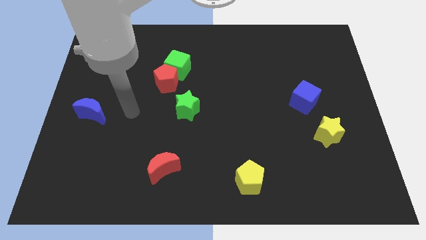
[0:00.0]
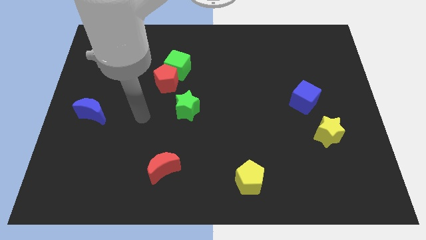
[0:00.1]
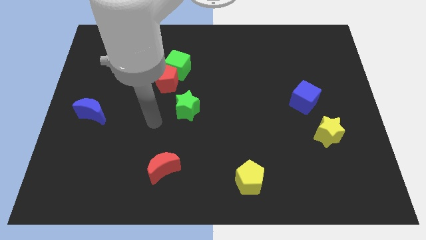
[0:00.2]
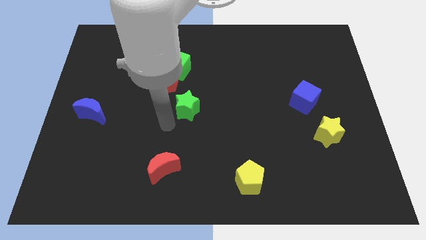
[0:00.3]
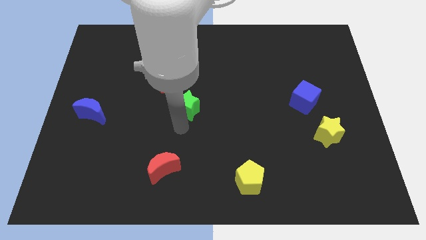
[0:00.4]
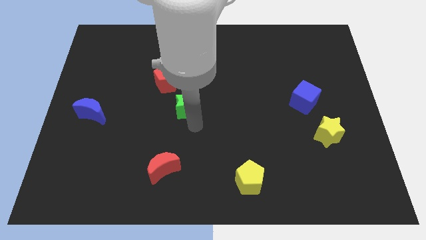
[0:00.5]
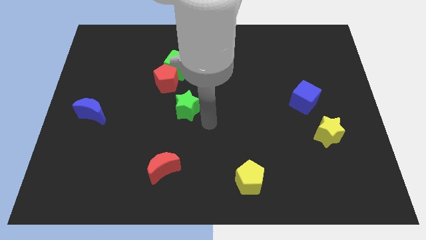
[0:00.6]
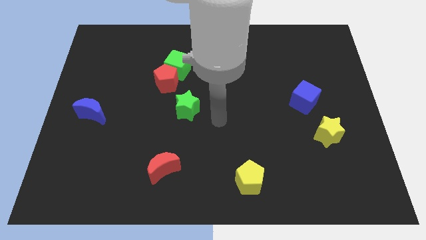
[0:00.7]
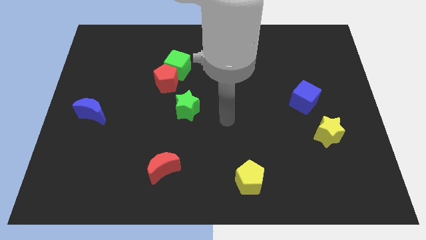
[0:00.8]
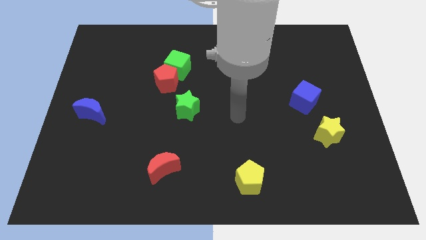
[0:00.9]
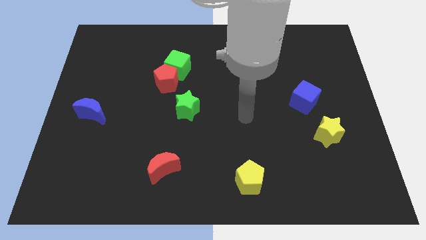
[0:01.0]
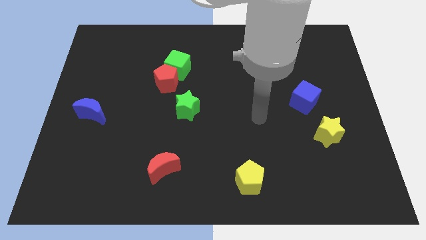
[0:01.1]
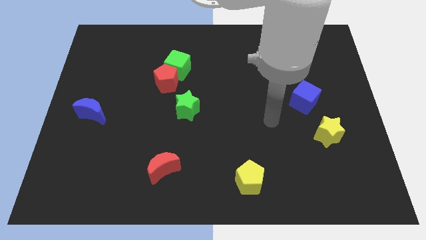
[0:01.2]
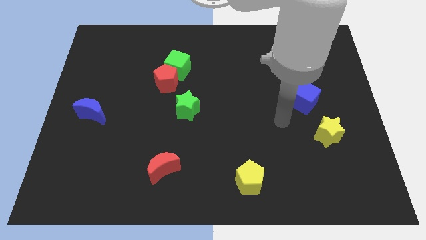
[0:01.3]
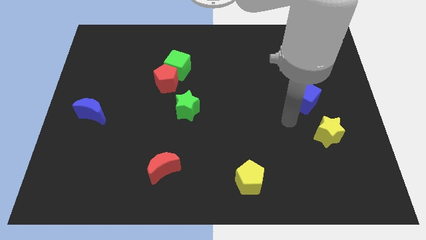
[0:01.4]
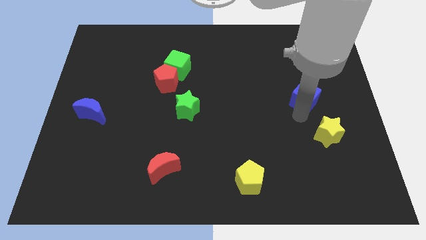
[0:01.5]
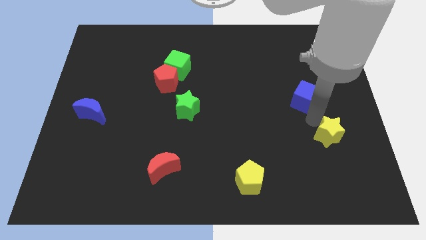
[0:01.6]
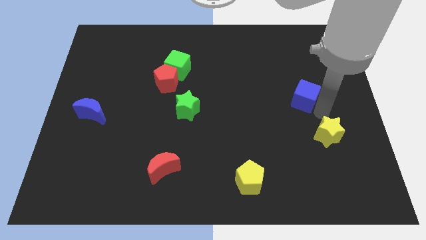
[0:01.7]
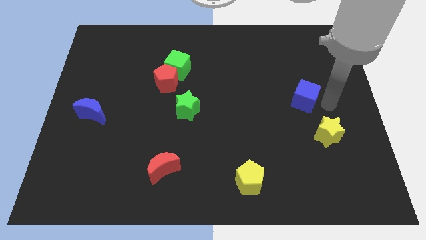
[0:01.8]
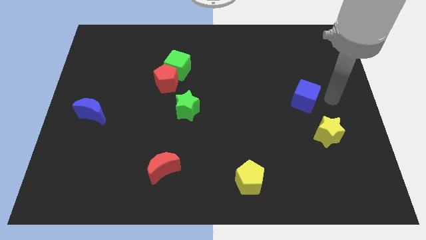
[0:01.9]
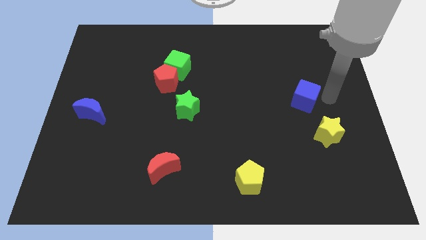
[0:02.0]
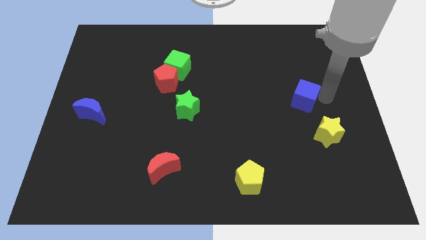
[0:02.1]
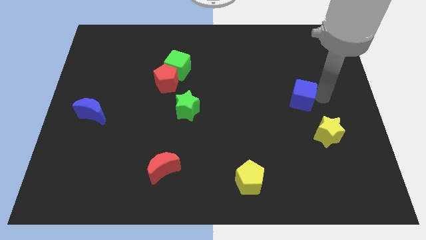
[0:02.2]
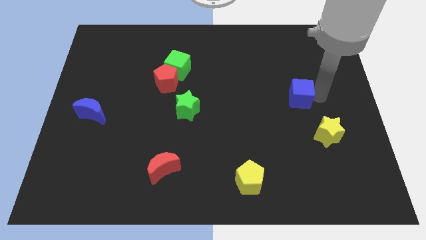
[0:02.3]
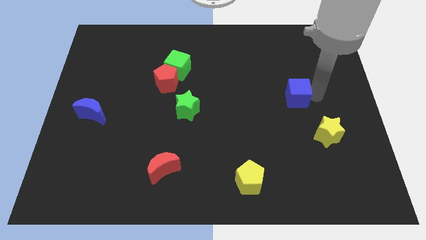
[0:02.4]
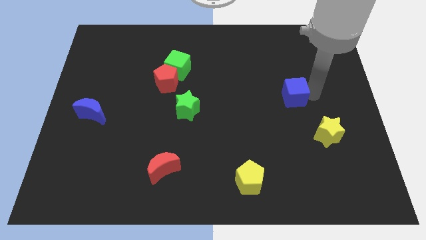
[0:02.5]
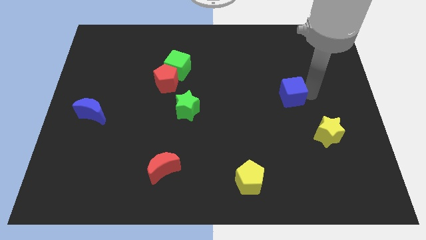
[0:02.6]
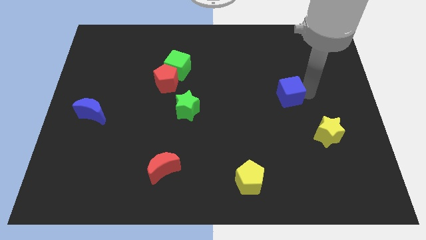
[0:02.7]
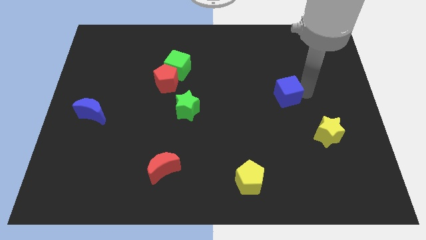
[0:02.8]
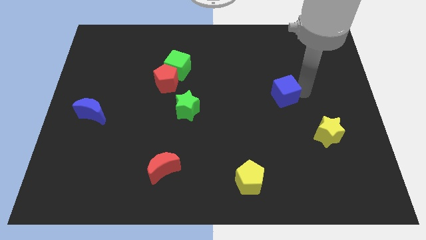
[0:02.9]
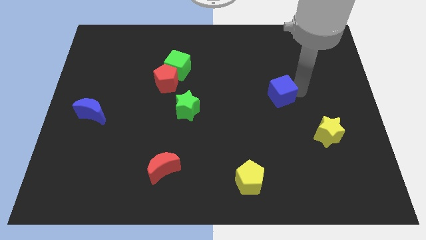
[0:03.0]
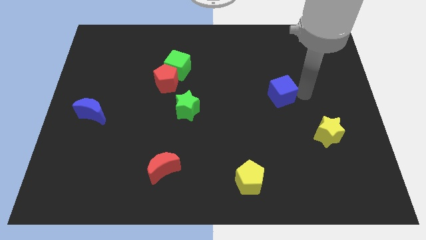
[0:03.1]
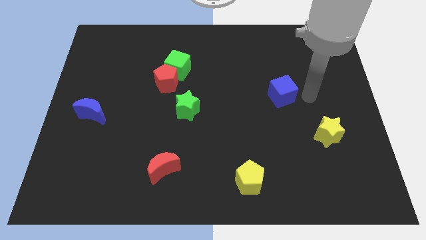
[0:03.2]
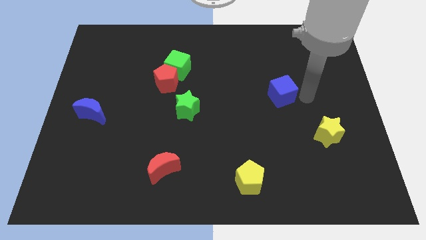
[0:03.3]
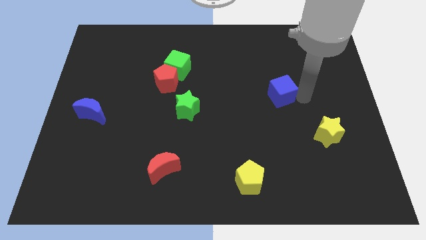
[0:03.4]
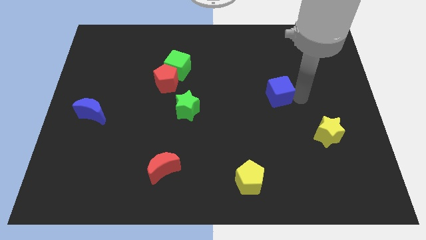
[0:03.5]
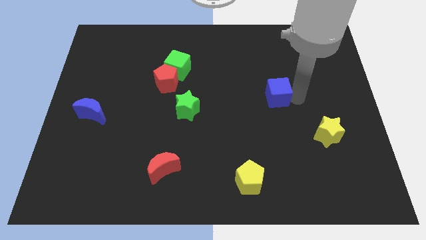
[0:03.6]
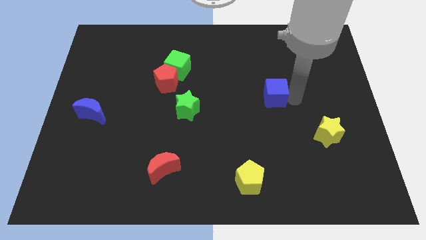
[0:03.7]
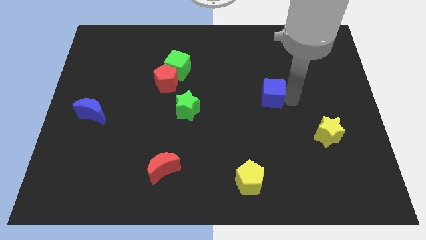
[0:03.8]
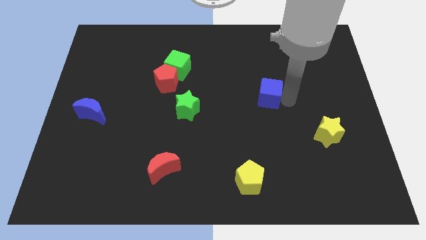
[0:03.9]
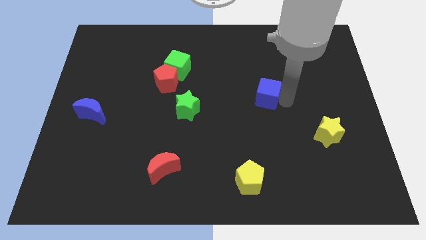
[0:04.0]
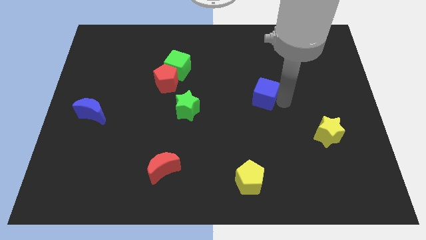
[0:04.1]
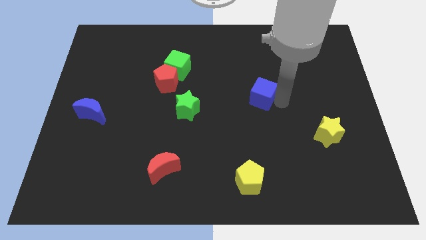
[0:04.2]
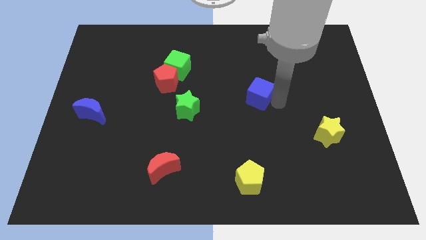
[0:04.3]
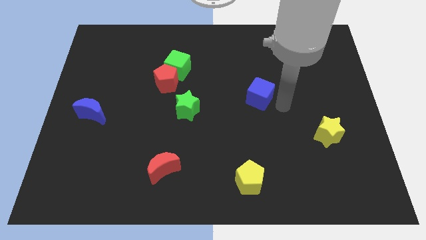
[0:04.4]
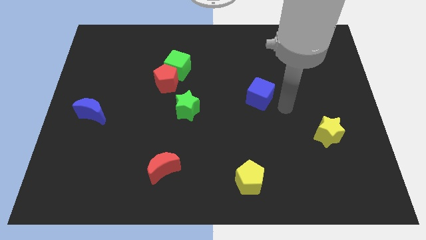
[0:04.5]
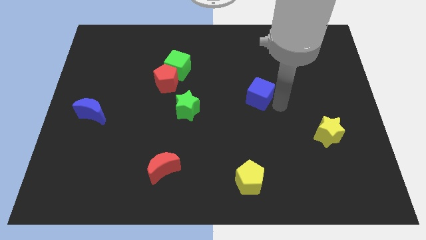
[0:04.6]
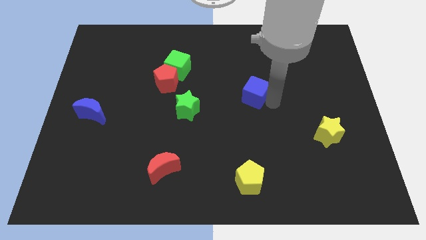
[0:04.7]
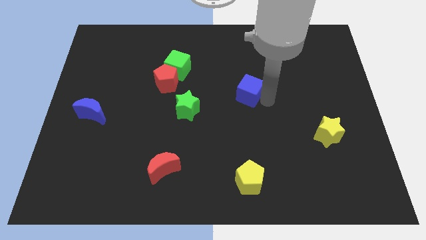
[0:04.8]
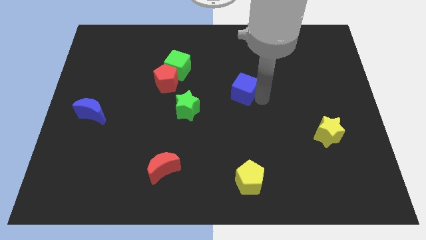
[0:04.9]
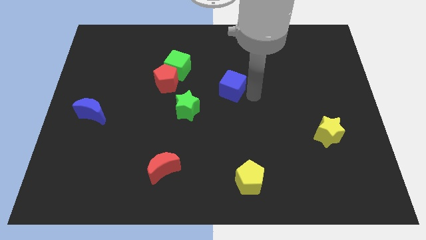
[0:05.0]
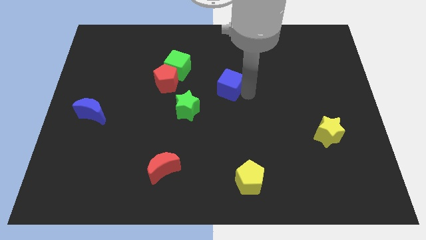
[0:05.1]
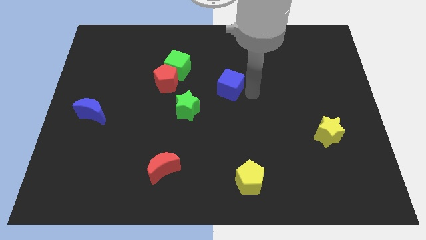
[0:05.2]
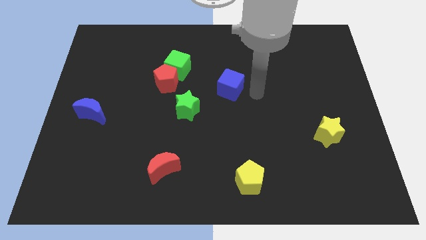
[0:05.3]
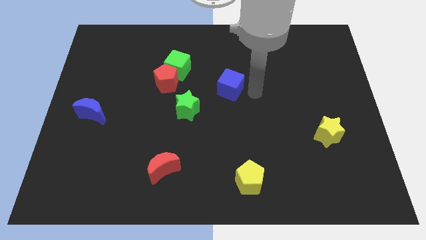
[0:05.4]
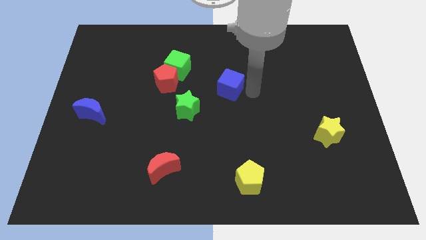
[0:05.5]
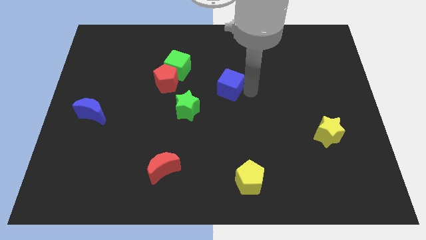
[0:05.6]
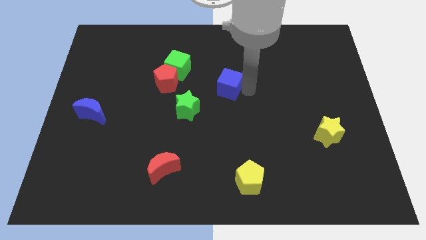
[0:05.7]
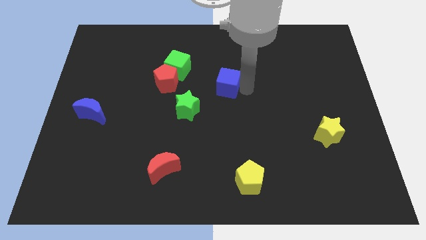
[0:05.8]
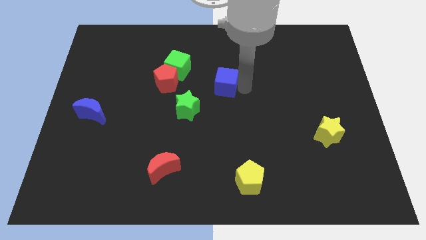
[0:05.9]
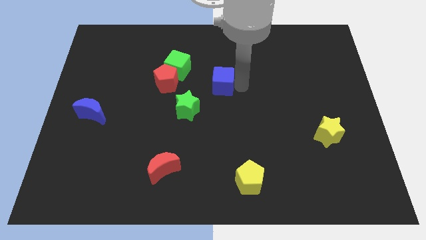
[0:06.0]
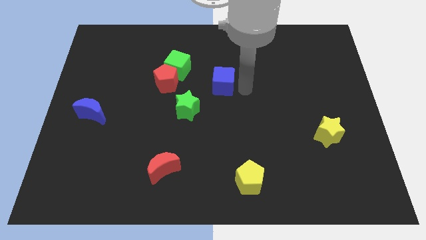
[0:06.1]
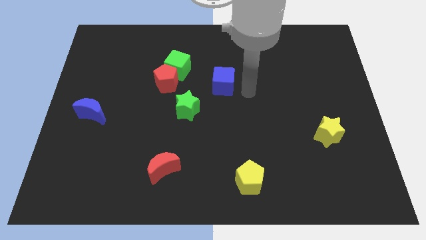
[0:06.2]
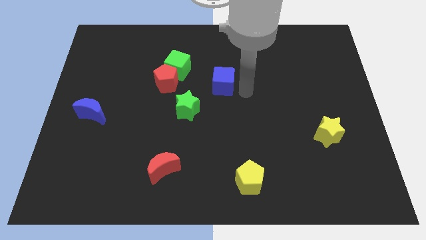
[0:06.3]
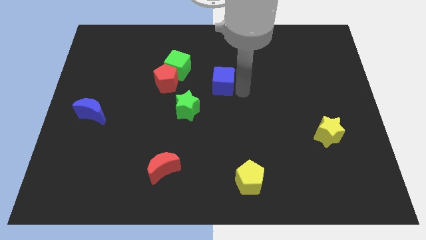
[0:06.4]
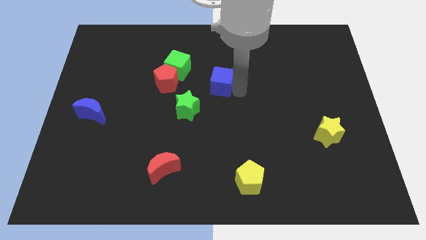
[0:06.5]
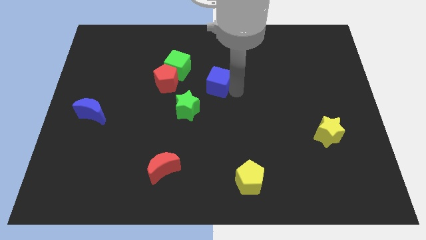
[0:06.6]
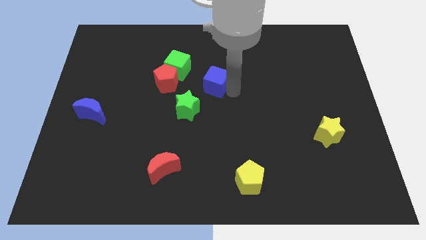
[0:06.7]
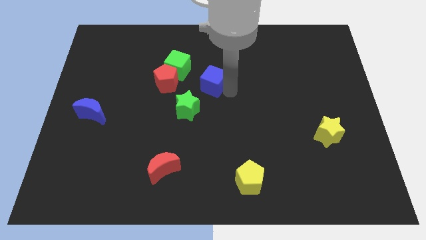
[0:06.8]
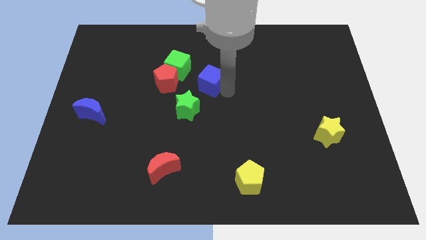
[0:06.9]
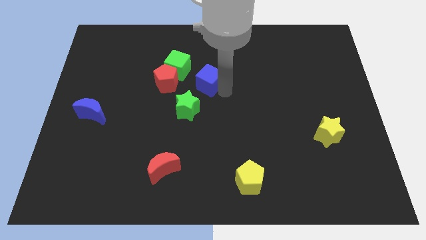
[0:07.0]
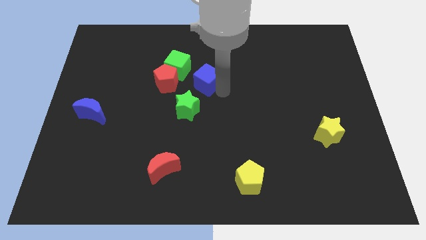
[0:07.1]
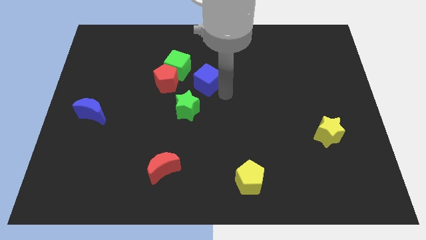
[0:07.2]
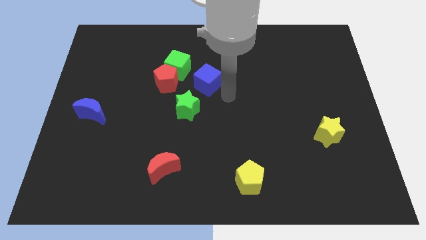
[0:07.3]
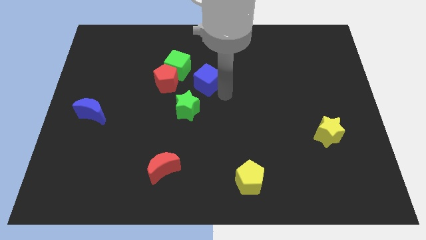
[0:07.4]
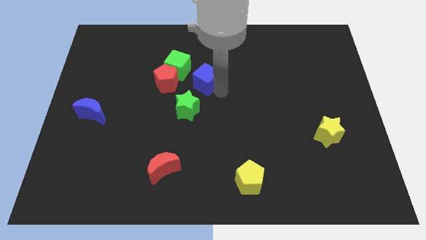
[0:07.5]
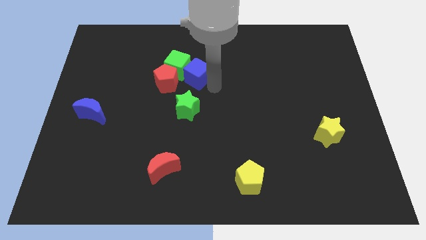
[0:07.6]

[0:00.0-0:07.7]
put the blue cube close to the green cube
